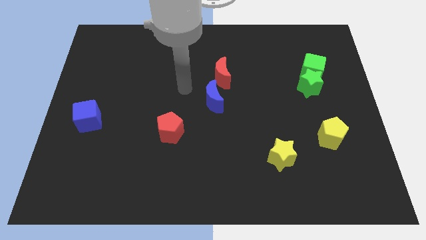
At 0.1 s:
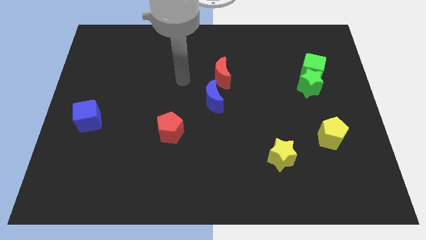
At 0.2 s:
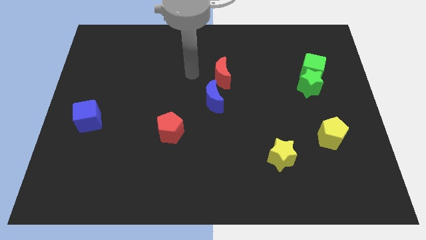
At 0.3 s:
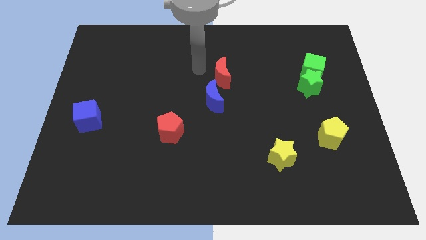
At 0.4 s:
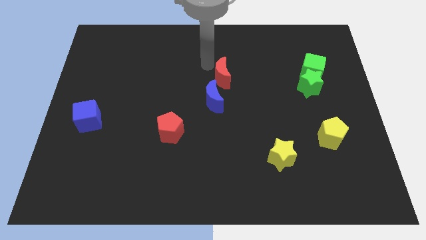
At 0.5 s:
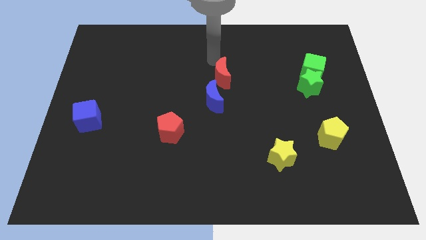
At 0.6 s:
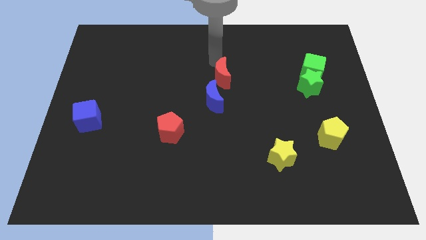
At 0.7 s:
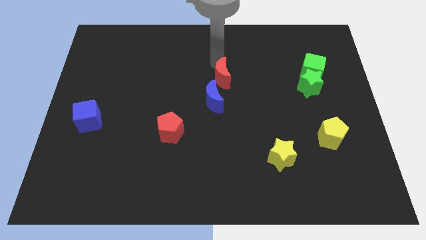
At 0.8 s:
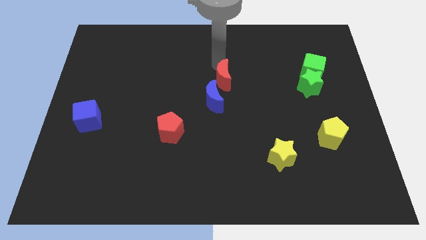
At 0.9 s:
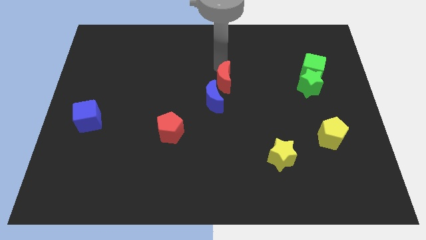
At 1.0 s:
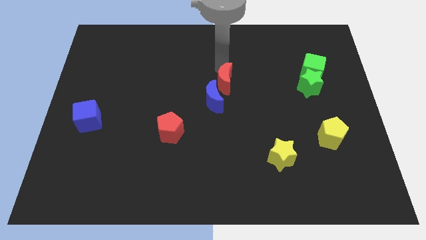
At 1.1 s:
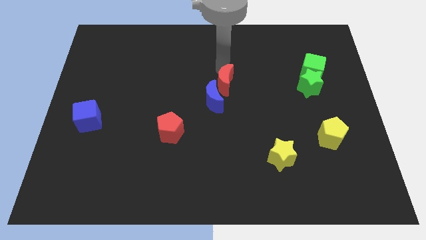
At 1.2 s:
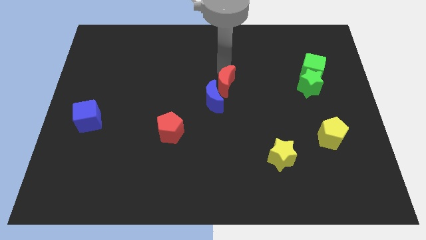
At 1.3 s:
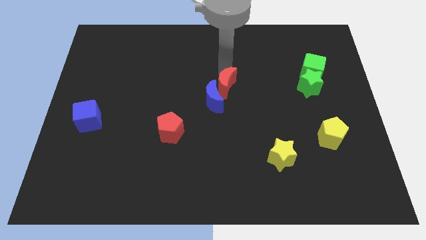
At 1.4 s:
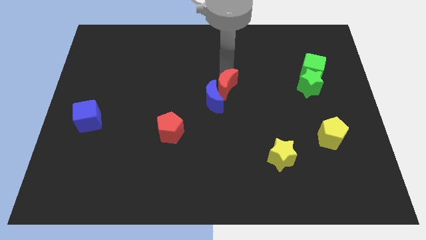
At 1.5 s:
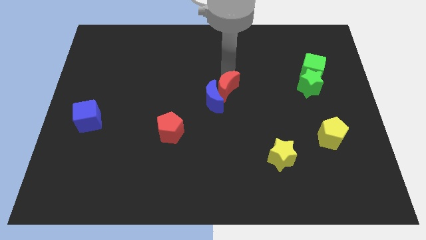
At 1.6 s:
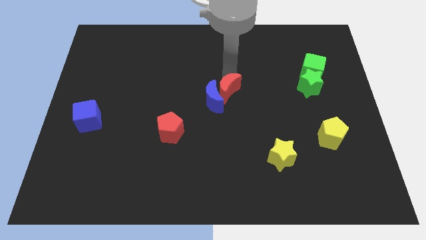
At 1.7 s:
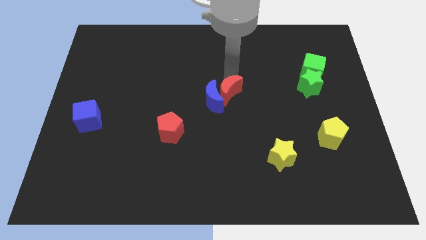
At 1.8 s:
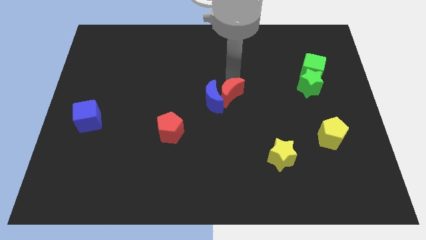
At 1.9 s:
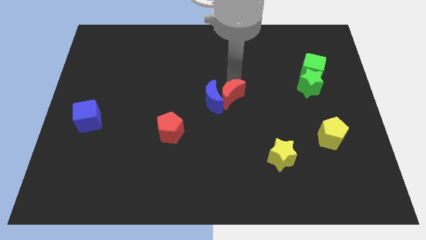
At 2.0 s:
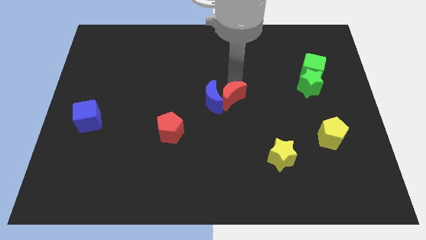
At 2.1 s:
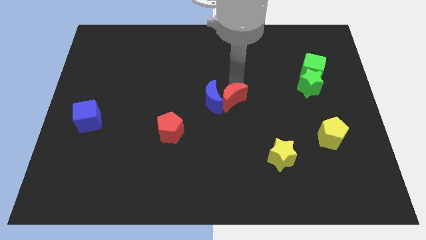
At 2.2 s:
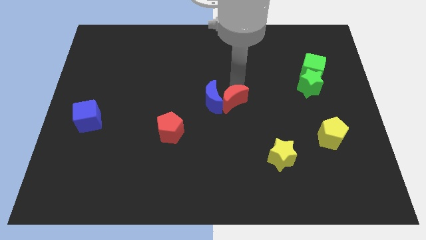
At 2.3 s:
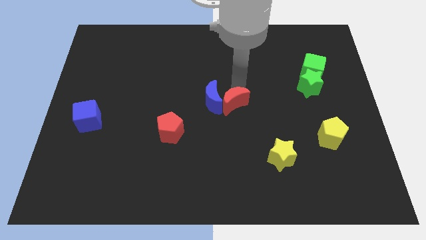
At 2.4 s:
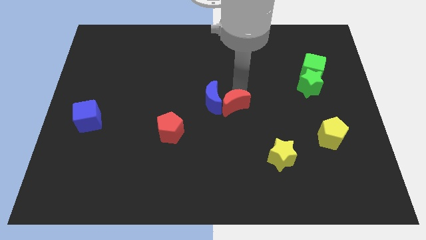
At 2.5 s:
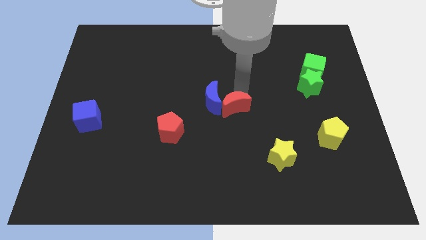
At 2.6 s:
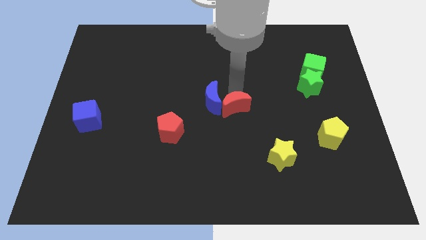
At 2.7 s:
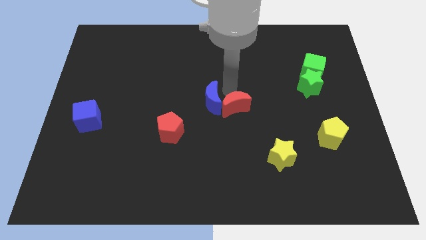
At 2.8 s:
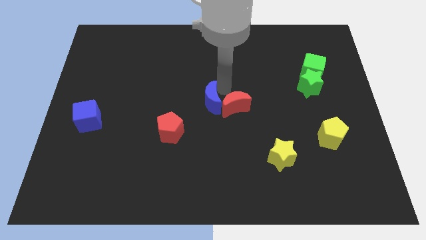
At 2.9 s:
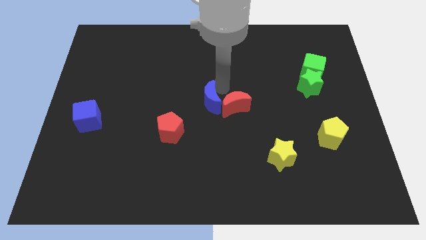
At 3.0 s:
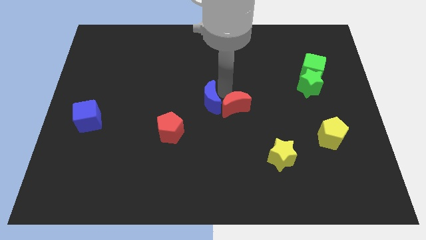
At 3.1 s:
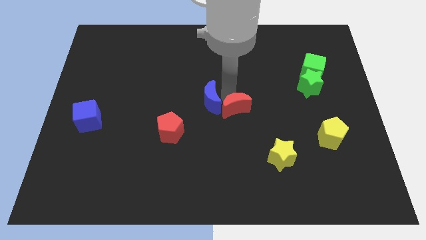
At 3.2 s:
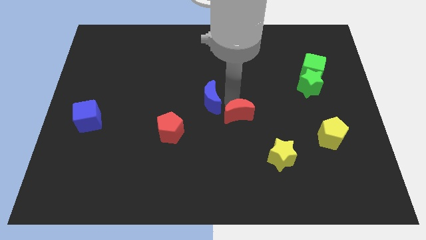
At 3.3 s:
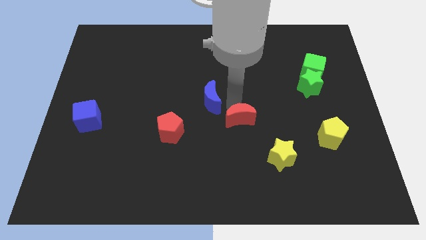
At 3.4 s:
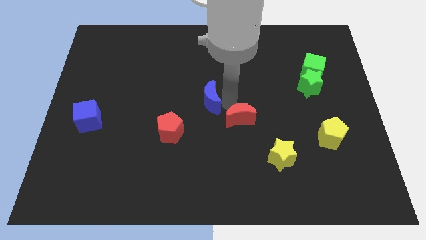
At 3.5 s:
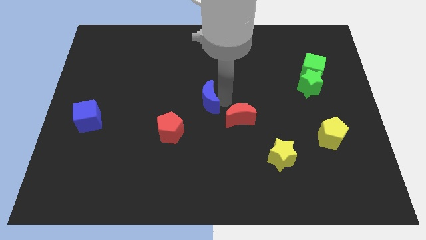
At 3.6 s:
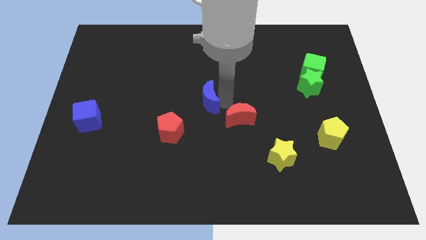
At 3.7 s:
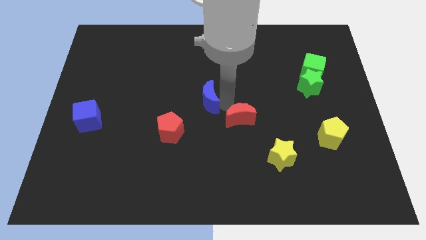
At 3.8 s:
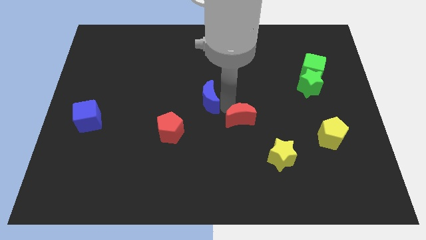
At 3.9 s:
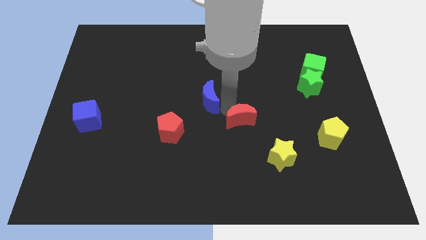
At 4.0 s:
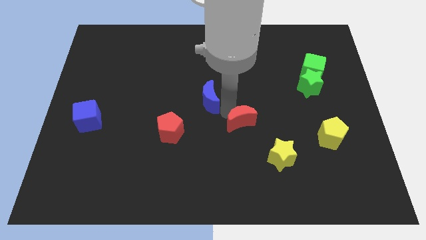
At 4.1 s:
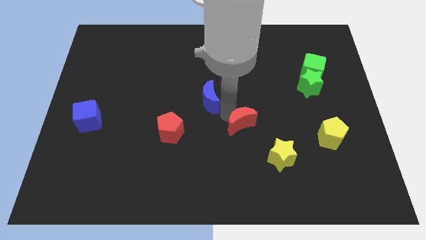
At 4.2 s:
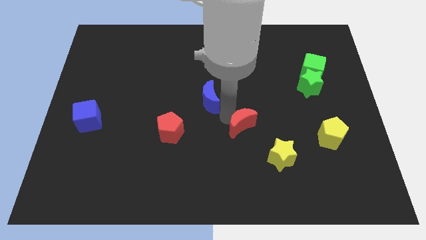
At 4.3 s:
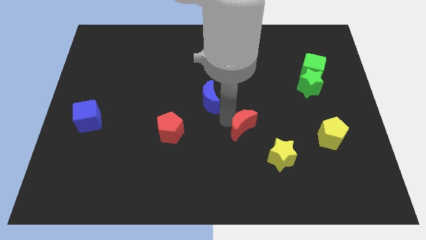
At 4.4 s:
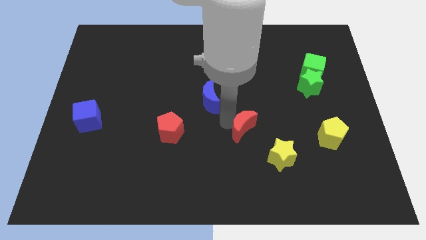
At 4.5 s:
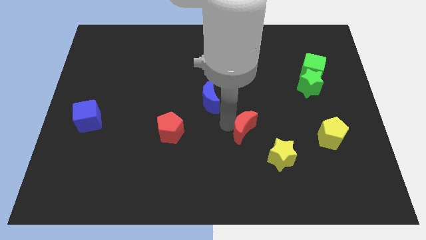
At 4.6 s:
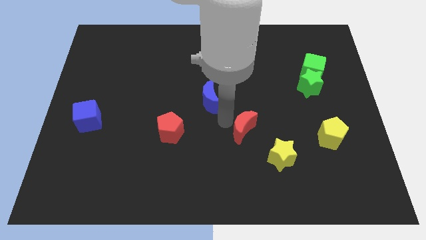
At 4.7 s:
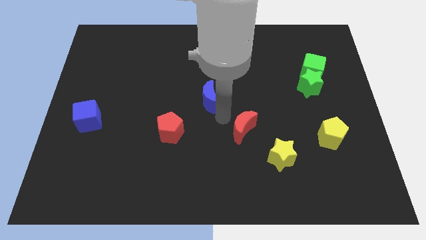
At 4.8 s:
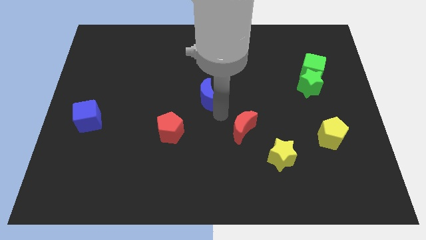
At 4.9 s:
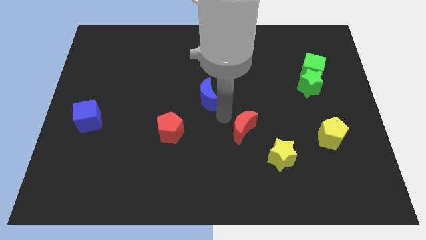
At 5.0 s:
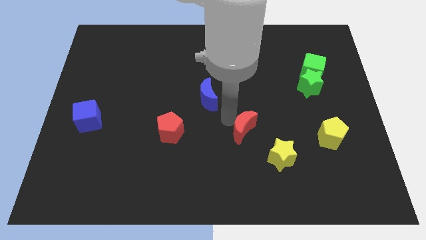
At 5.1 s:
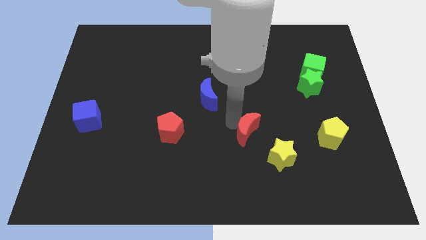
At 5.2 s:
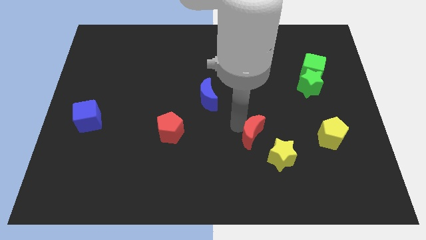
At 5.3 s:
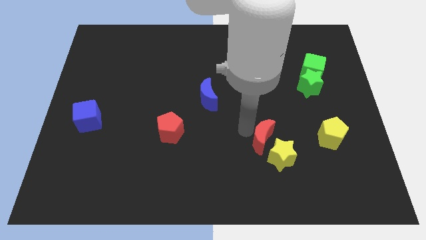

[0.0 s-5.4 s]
push the red moon towards the yellow star

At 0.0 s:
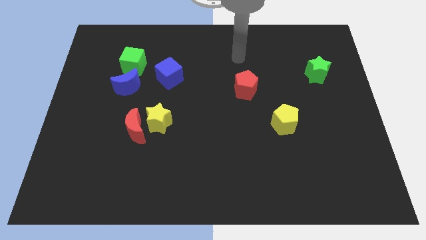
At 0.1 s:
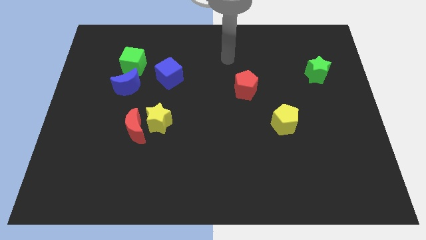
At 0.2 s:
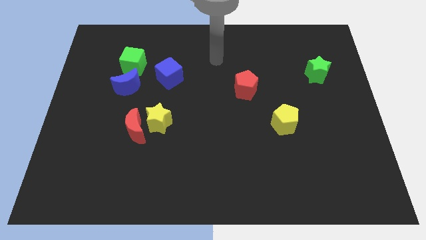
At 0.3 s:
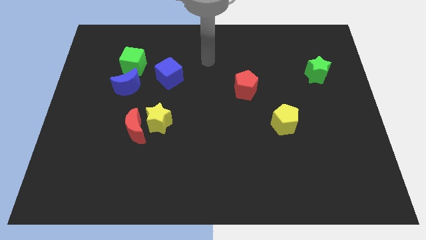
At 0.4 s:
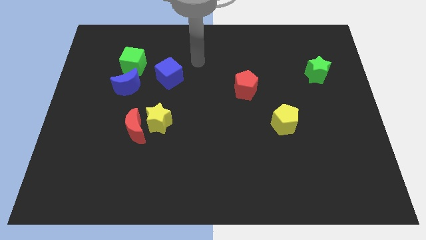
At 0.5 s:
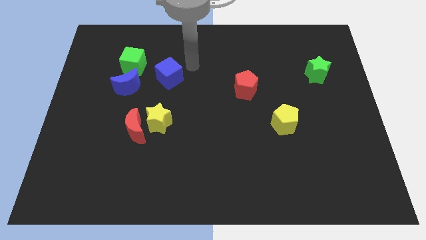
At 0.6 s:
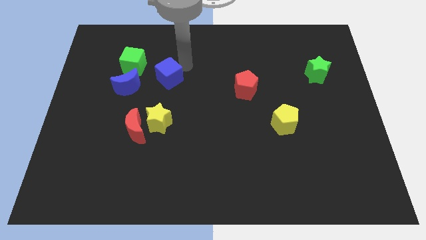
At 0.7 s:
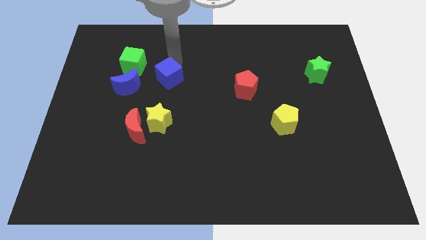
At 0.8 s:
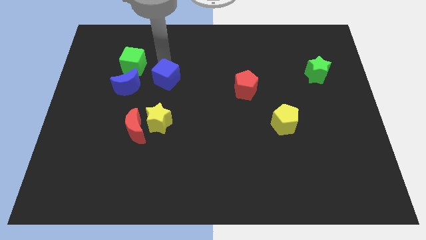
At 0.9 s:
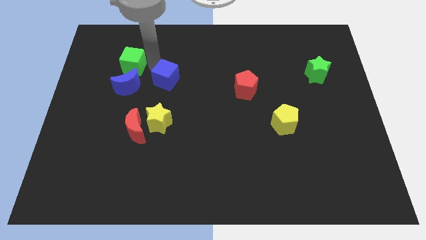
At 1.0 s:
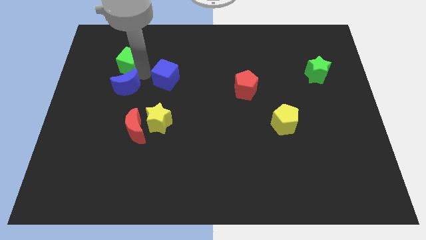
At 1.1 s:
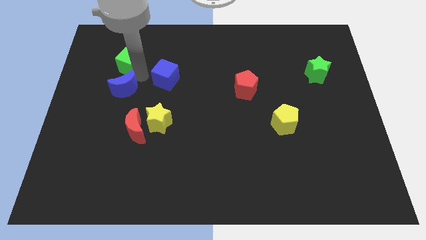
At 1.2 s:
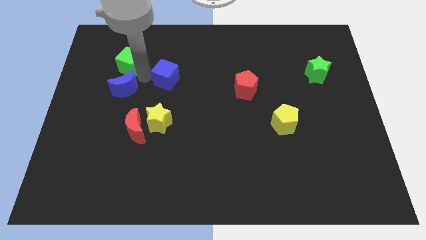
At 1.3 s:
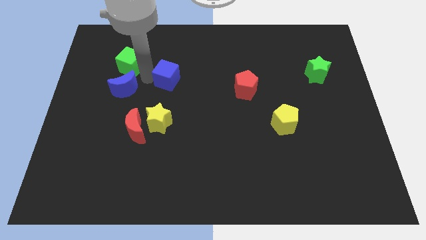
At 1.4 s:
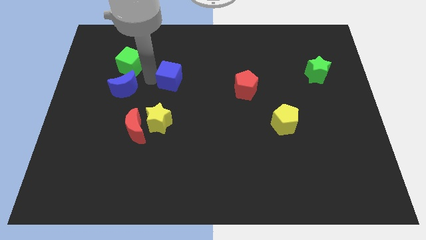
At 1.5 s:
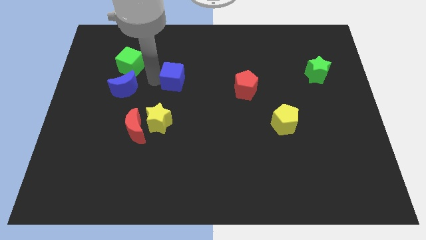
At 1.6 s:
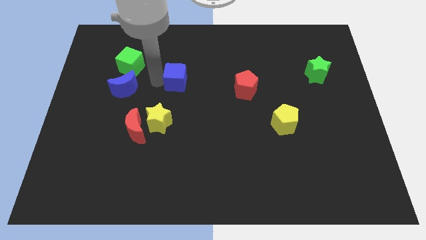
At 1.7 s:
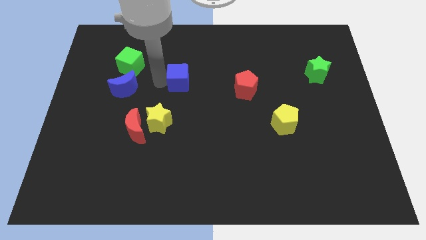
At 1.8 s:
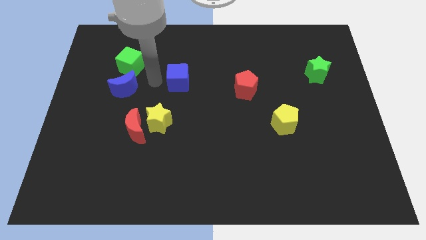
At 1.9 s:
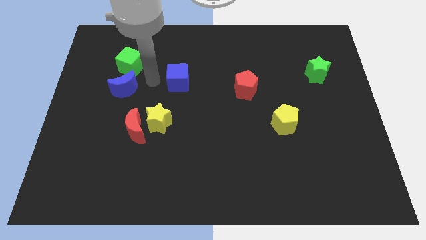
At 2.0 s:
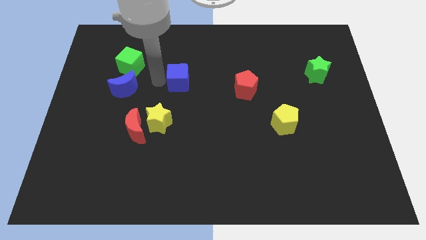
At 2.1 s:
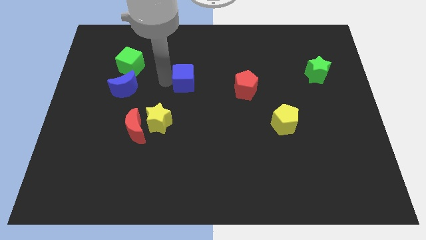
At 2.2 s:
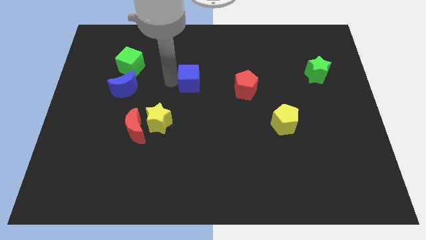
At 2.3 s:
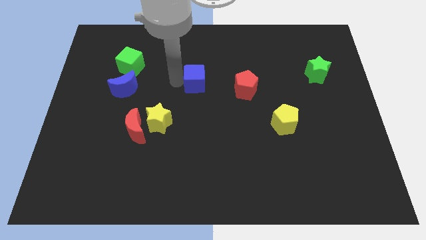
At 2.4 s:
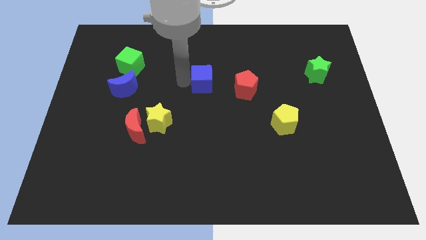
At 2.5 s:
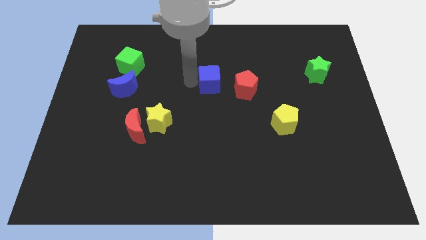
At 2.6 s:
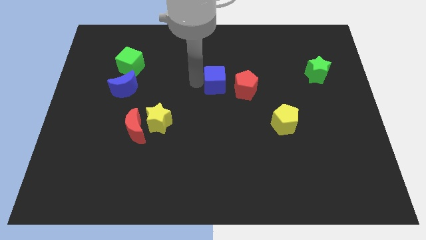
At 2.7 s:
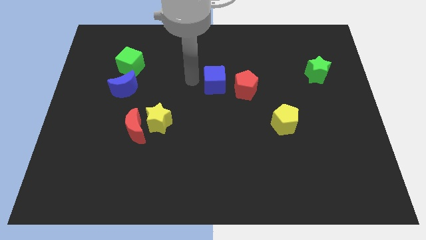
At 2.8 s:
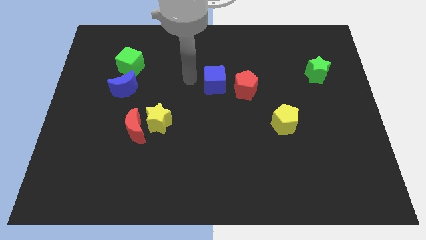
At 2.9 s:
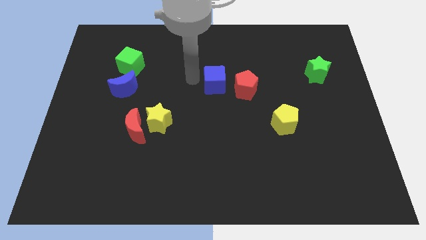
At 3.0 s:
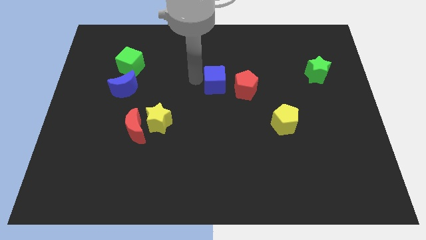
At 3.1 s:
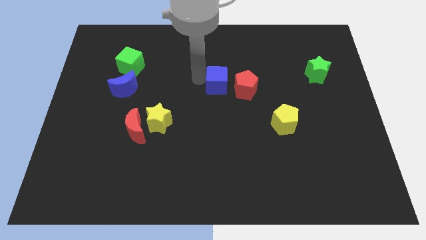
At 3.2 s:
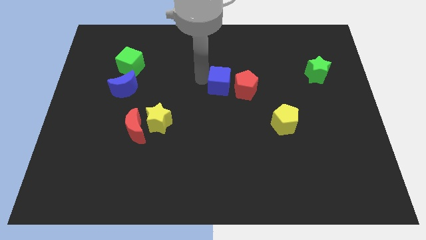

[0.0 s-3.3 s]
slide the blue cube next to the red pentagon
